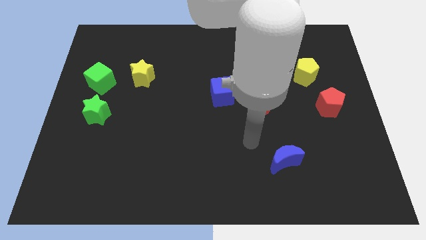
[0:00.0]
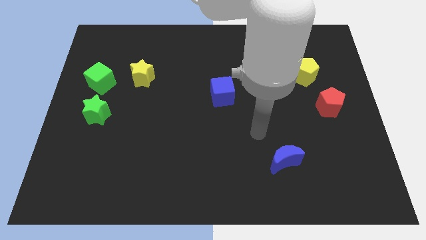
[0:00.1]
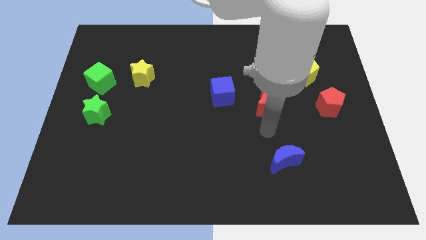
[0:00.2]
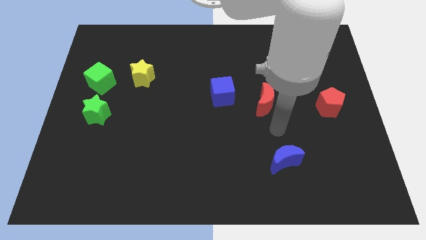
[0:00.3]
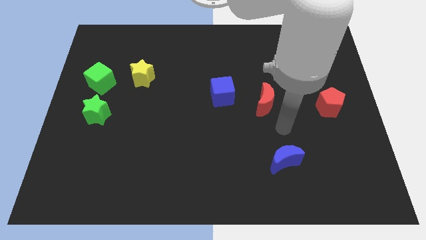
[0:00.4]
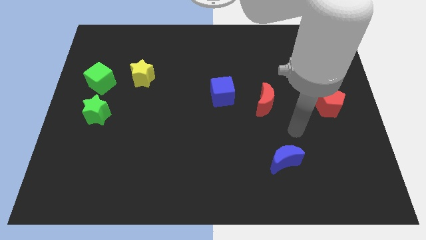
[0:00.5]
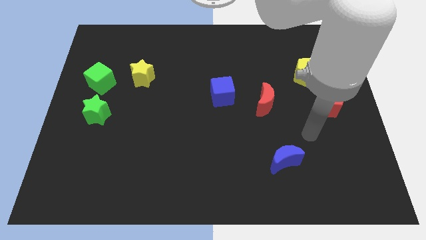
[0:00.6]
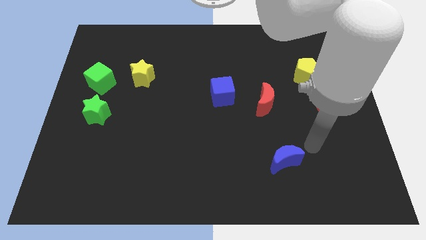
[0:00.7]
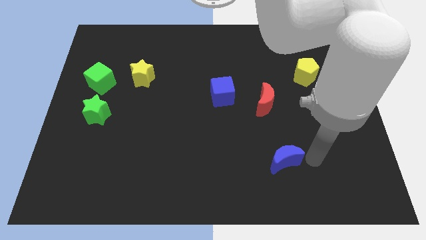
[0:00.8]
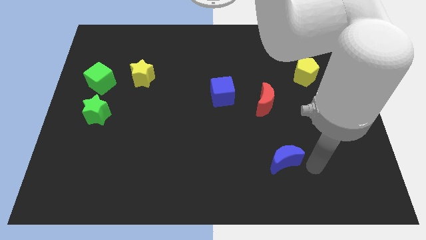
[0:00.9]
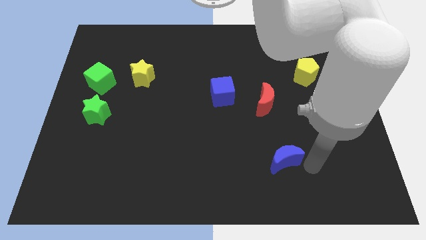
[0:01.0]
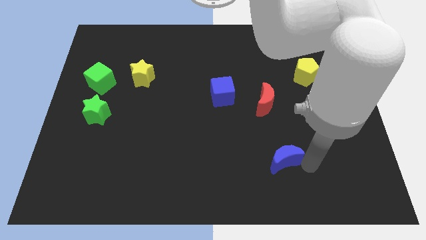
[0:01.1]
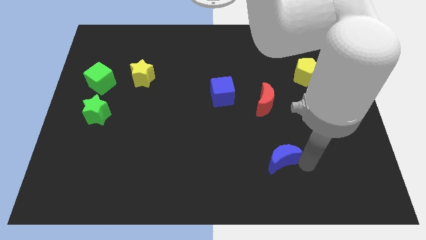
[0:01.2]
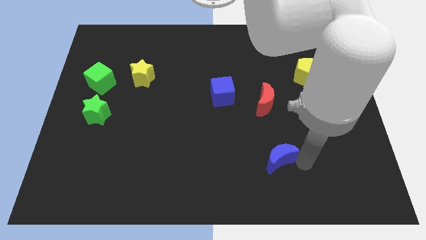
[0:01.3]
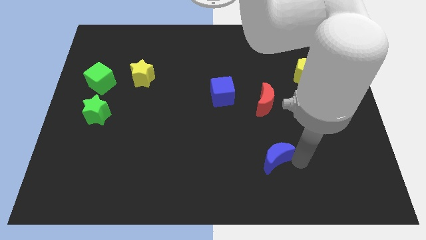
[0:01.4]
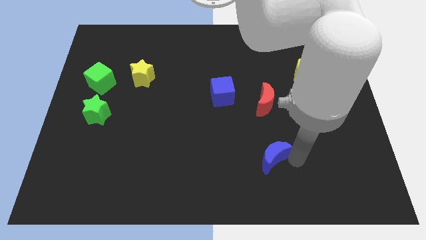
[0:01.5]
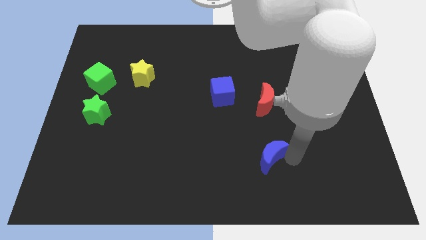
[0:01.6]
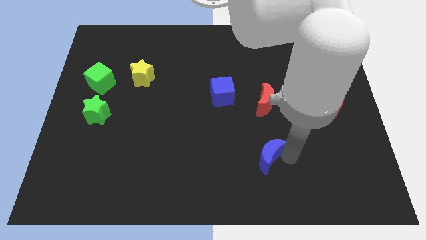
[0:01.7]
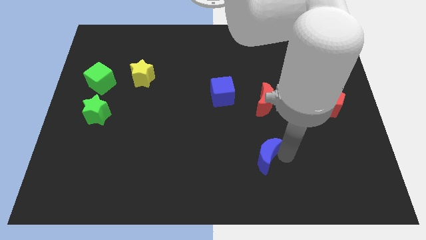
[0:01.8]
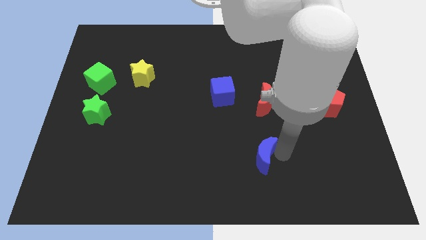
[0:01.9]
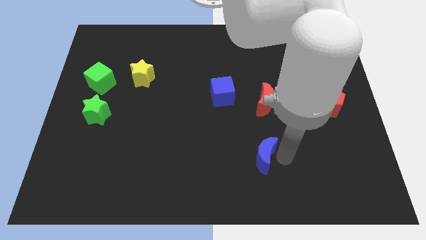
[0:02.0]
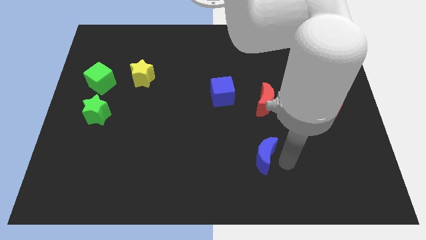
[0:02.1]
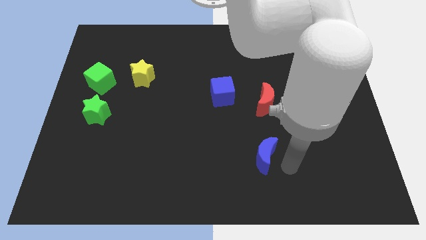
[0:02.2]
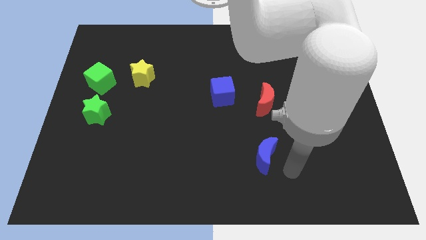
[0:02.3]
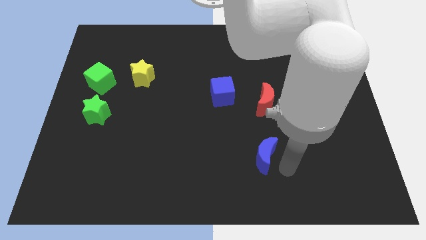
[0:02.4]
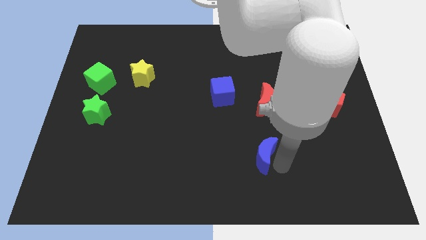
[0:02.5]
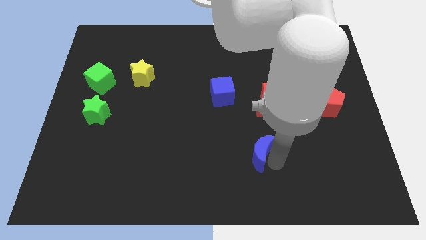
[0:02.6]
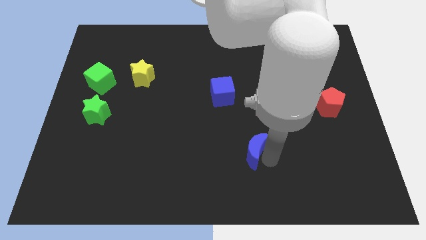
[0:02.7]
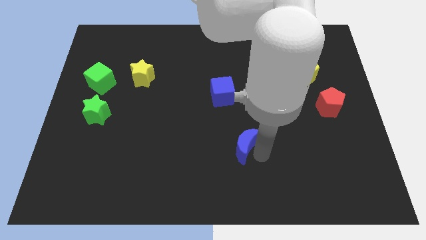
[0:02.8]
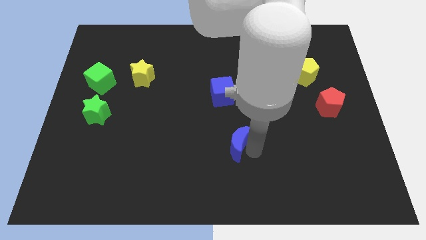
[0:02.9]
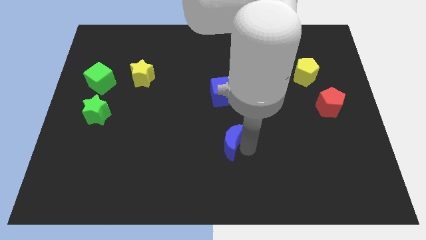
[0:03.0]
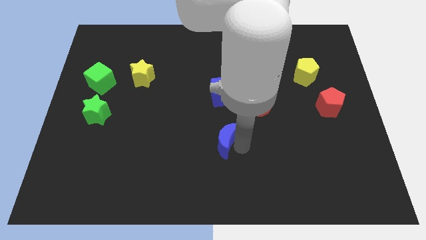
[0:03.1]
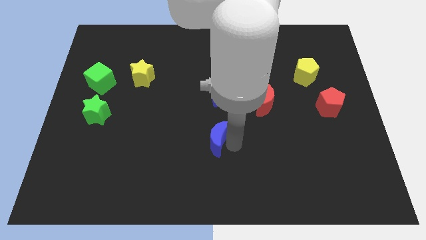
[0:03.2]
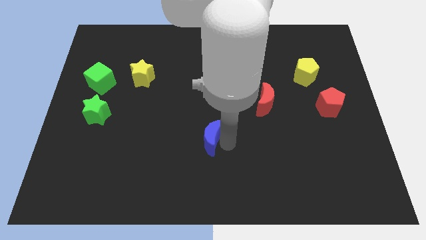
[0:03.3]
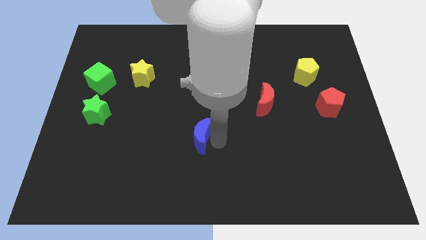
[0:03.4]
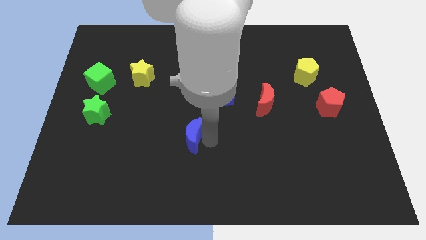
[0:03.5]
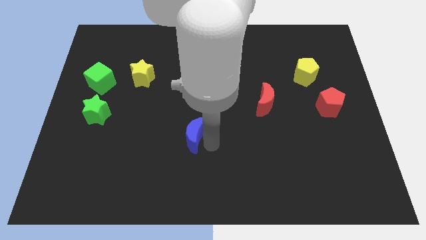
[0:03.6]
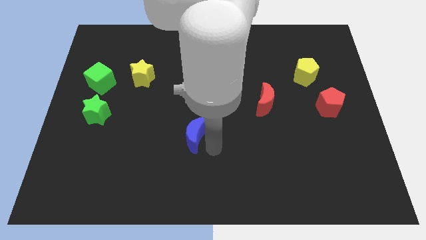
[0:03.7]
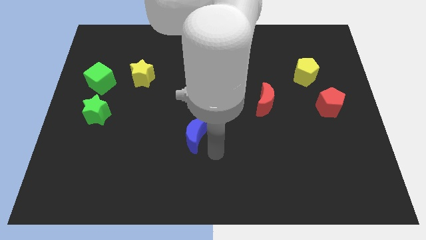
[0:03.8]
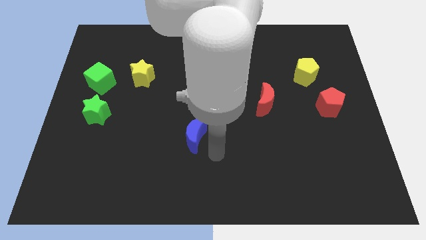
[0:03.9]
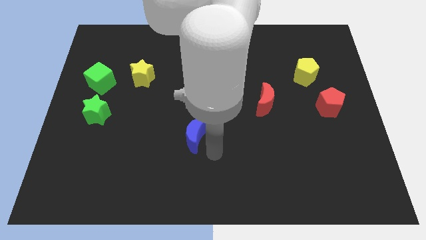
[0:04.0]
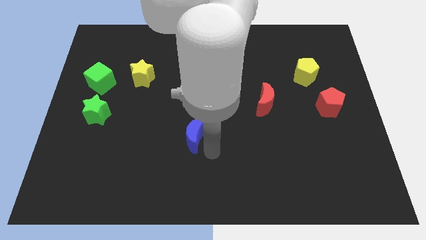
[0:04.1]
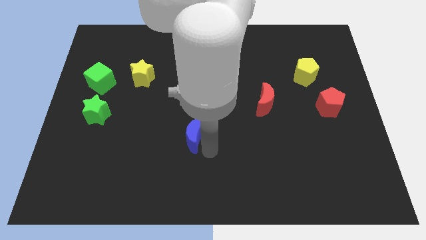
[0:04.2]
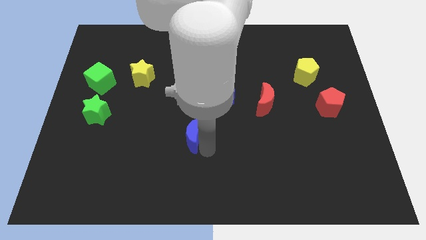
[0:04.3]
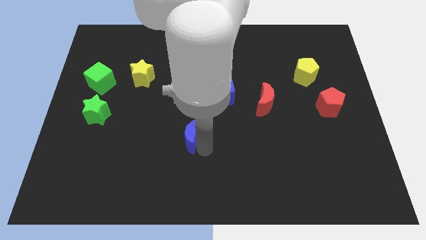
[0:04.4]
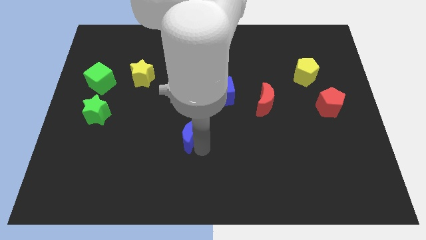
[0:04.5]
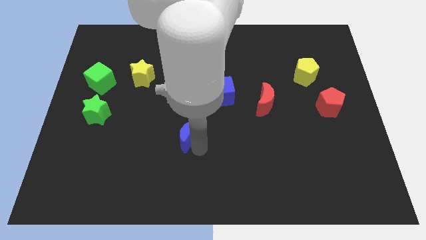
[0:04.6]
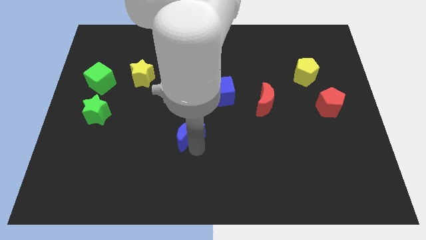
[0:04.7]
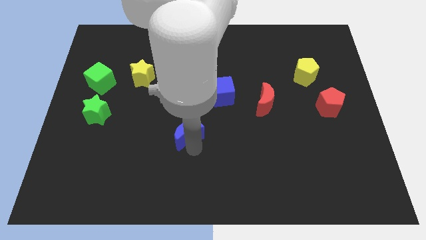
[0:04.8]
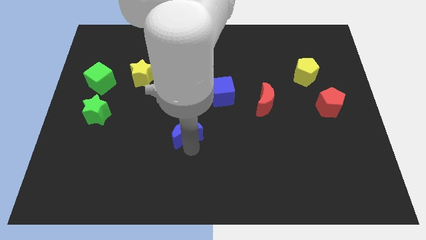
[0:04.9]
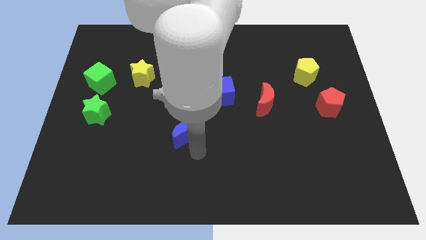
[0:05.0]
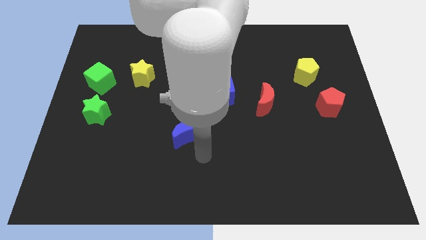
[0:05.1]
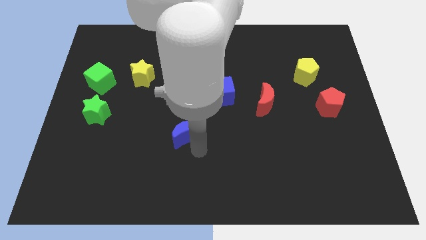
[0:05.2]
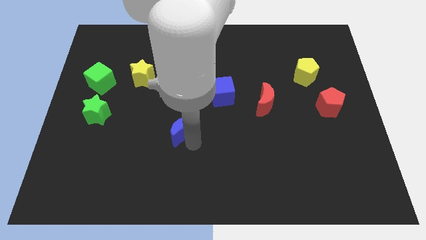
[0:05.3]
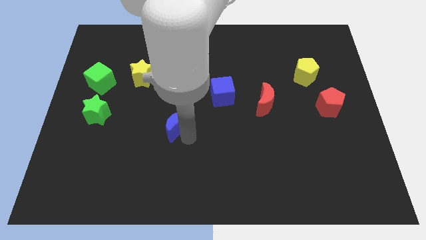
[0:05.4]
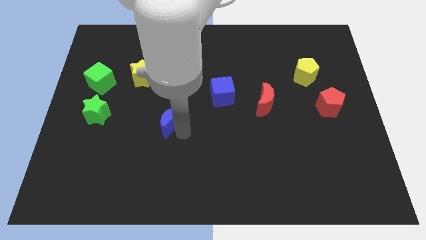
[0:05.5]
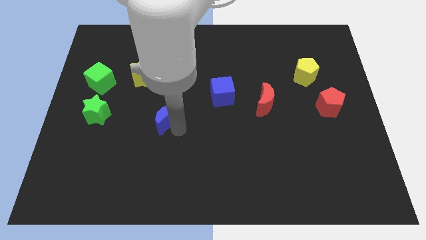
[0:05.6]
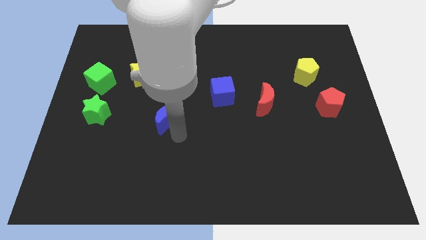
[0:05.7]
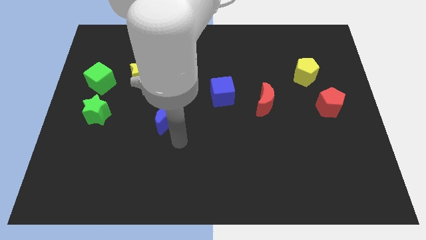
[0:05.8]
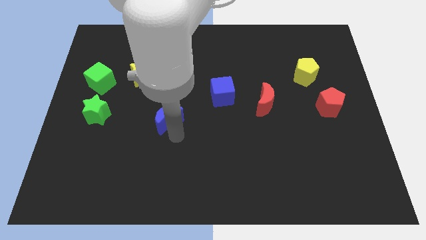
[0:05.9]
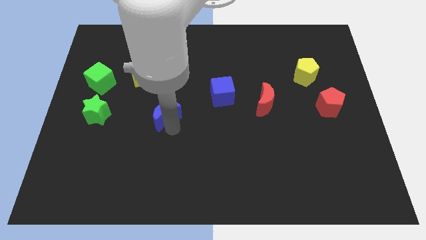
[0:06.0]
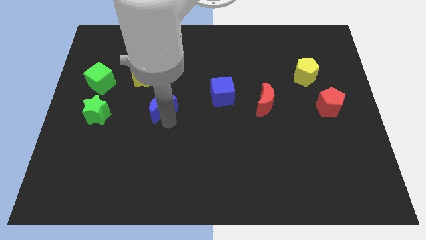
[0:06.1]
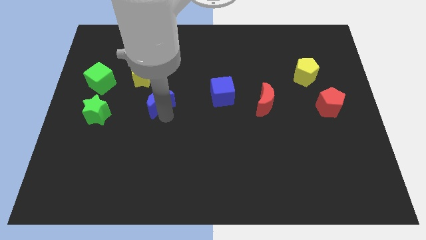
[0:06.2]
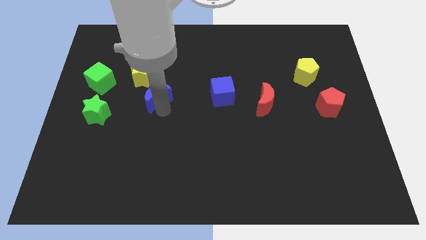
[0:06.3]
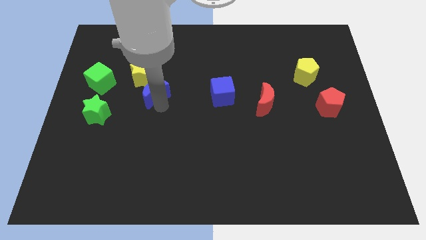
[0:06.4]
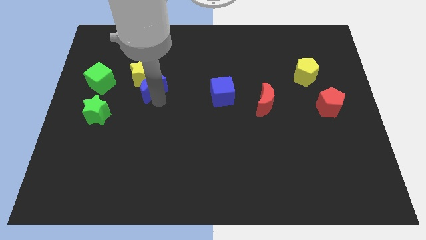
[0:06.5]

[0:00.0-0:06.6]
slide the blue moon towards the yellow star
